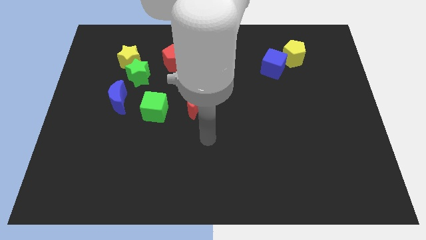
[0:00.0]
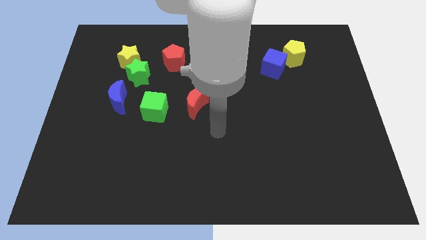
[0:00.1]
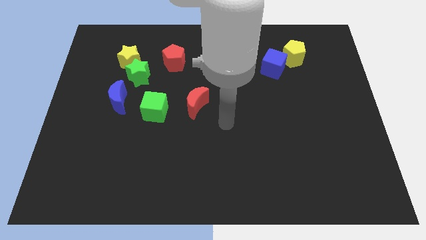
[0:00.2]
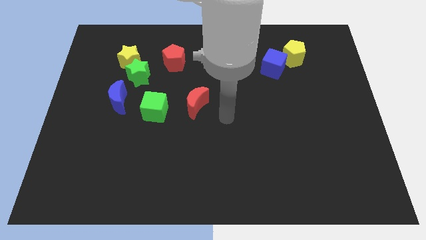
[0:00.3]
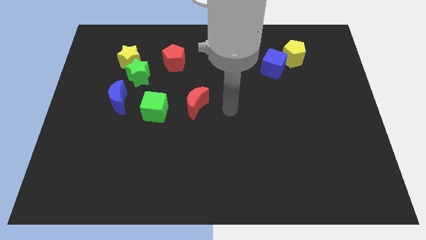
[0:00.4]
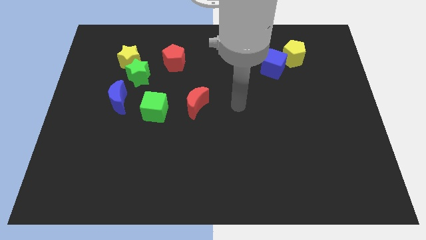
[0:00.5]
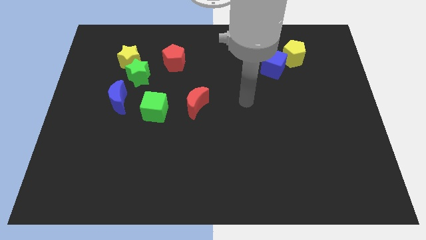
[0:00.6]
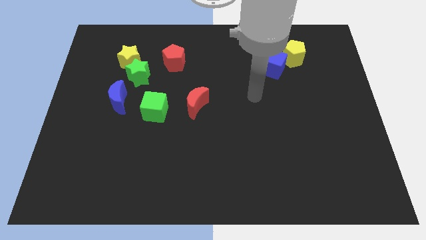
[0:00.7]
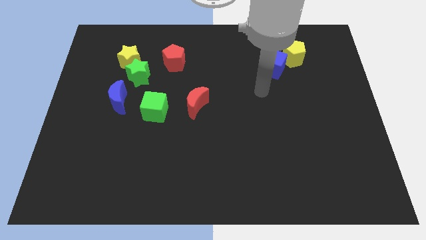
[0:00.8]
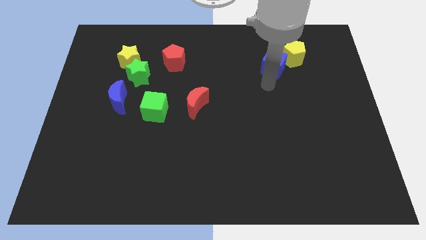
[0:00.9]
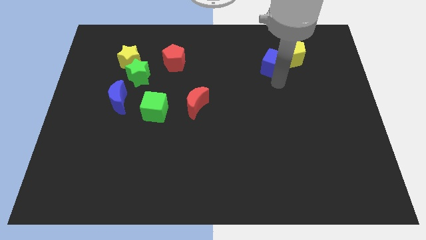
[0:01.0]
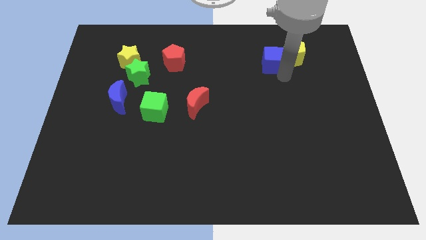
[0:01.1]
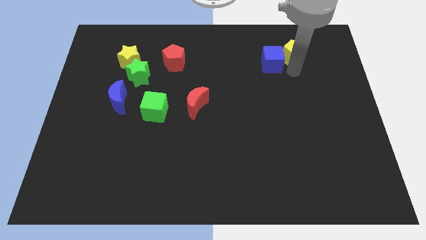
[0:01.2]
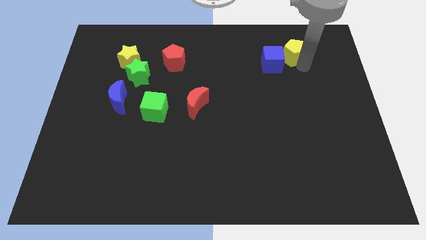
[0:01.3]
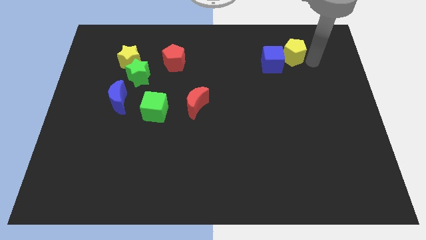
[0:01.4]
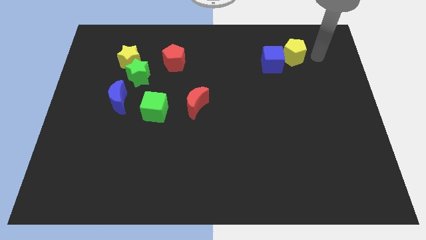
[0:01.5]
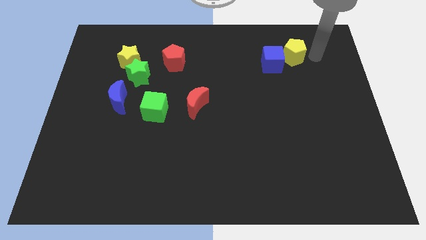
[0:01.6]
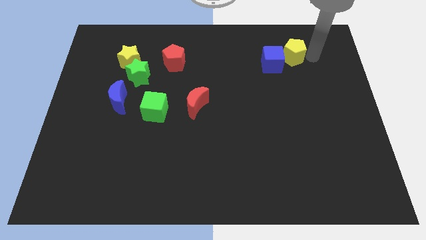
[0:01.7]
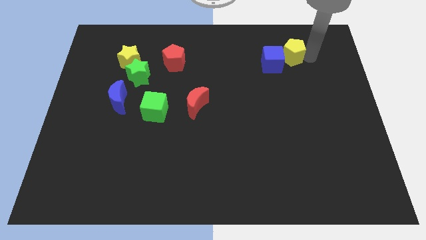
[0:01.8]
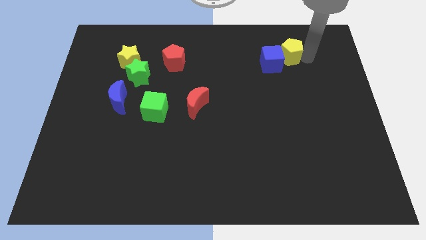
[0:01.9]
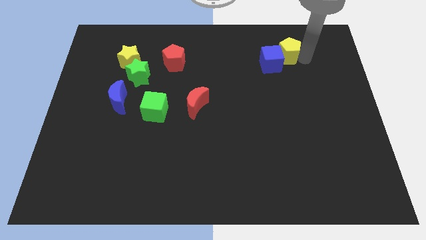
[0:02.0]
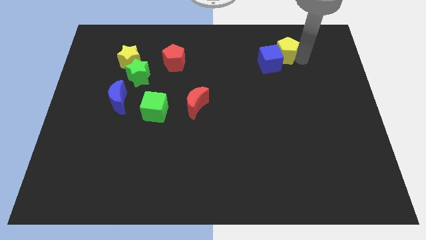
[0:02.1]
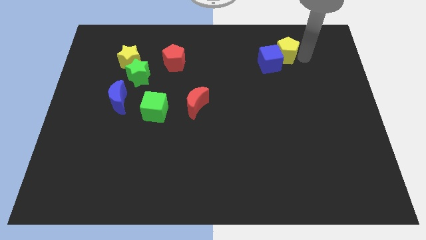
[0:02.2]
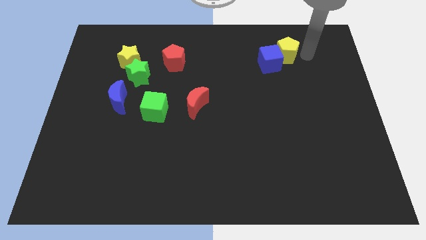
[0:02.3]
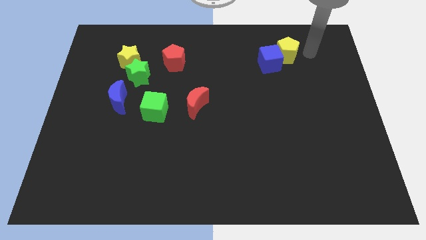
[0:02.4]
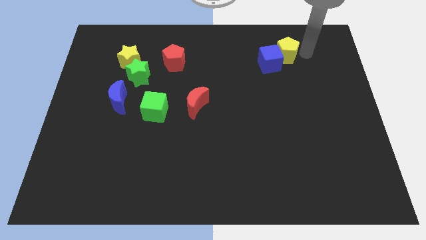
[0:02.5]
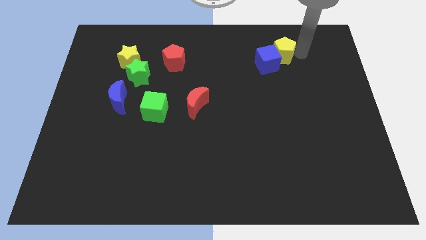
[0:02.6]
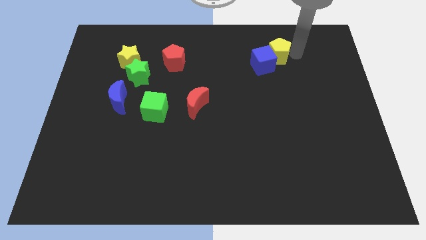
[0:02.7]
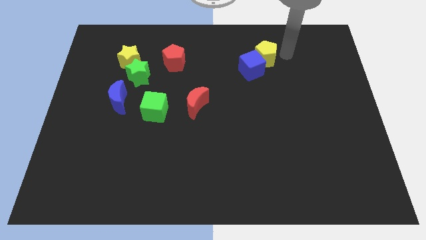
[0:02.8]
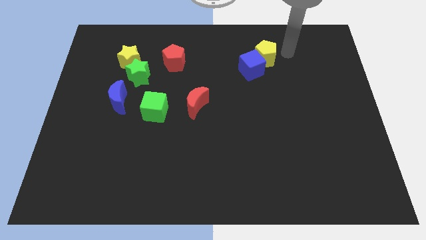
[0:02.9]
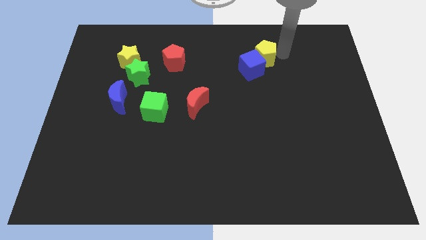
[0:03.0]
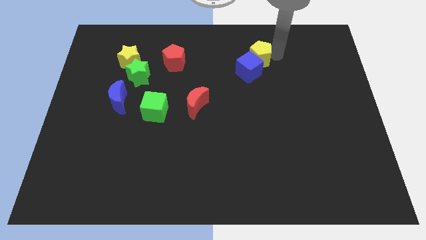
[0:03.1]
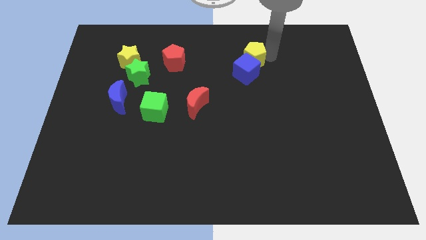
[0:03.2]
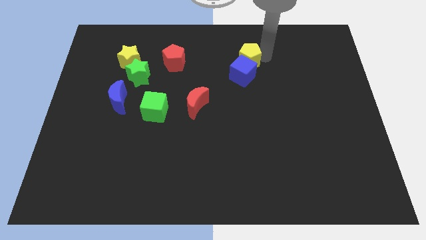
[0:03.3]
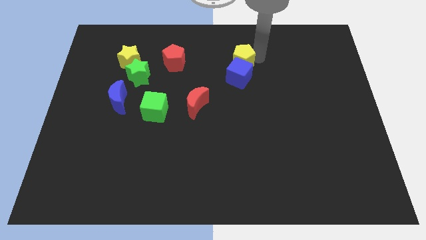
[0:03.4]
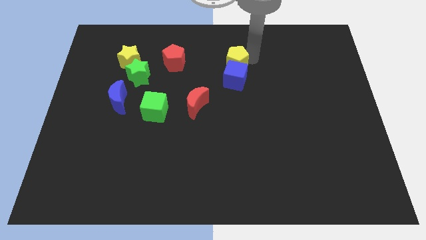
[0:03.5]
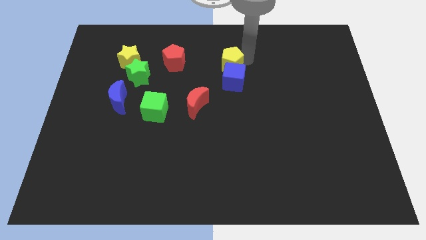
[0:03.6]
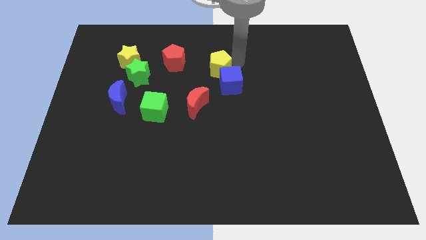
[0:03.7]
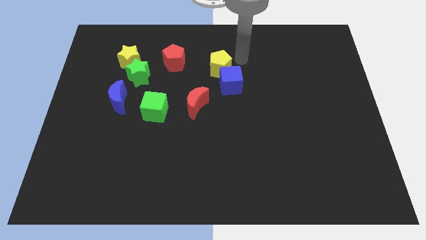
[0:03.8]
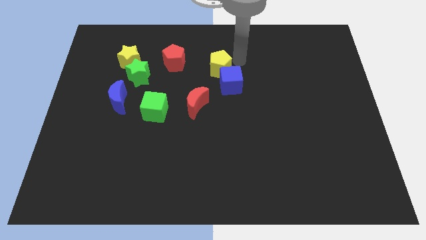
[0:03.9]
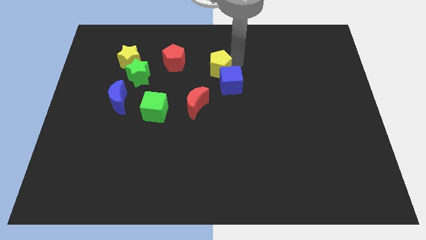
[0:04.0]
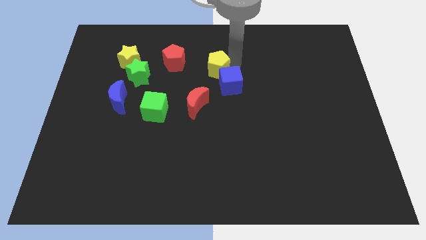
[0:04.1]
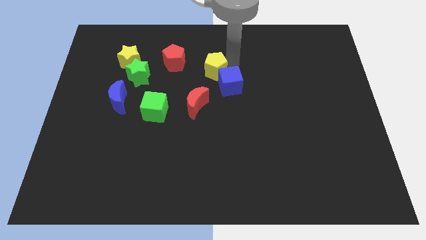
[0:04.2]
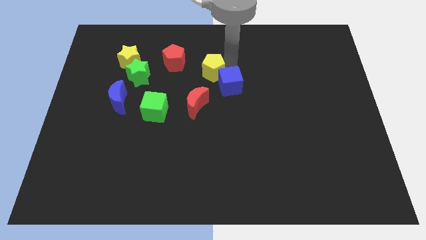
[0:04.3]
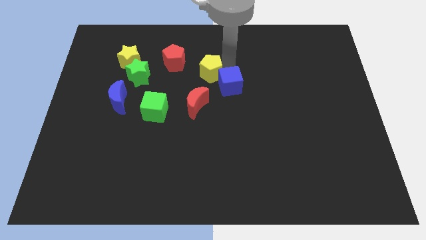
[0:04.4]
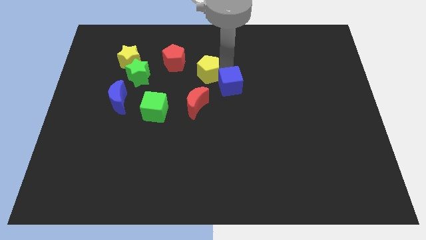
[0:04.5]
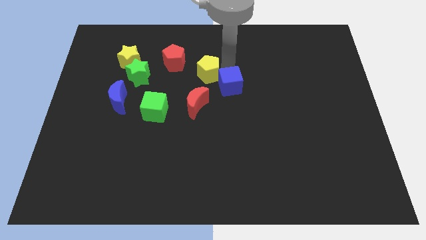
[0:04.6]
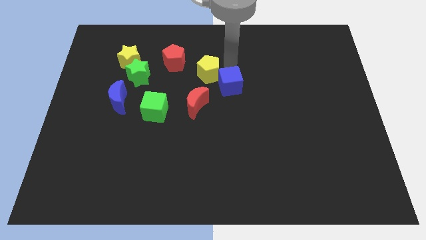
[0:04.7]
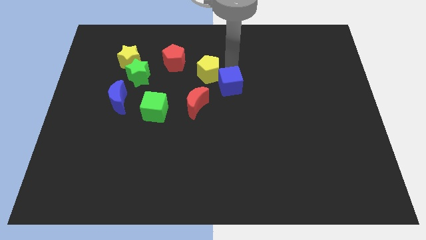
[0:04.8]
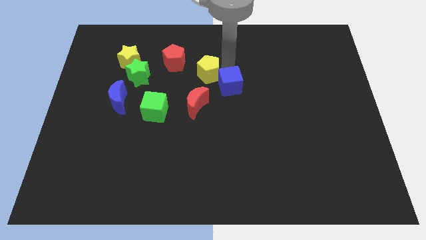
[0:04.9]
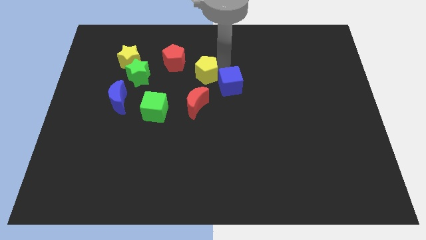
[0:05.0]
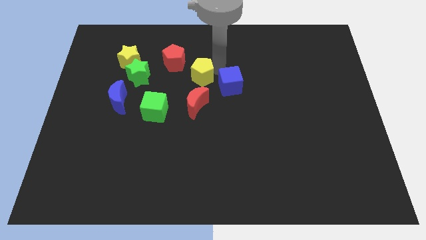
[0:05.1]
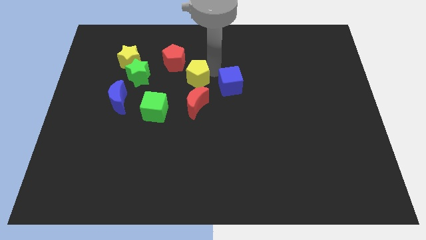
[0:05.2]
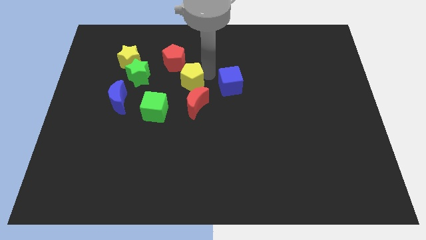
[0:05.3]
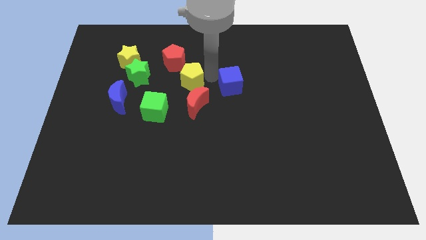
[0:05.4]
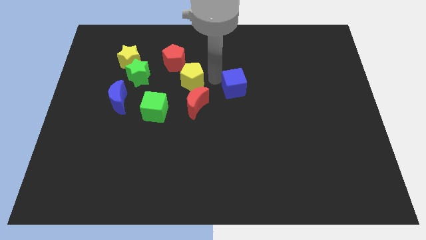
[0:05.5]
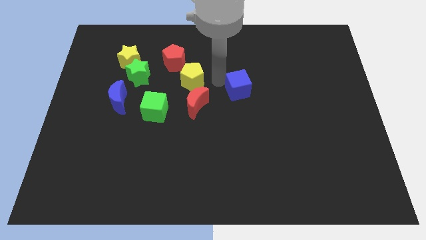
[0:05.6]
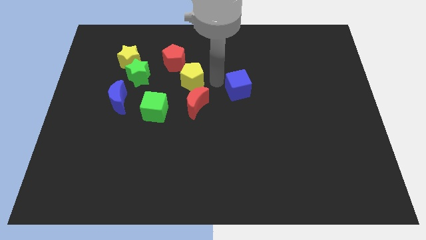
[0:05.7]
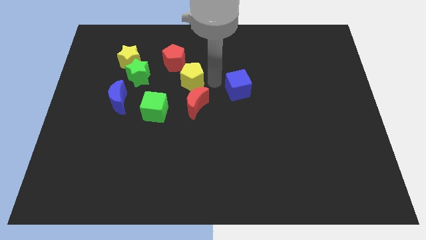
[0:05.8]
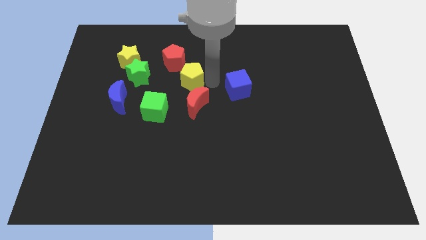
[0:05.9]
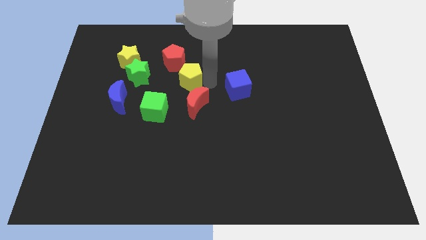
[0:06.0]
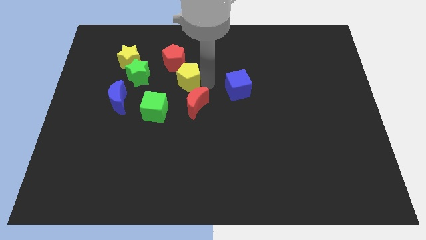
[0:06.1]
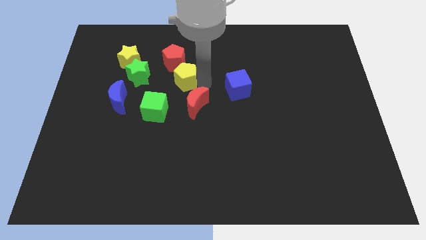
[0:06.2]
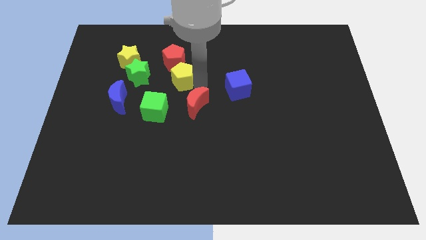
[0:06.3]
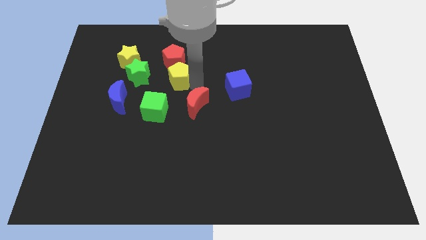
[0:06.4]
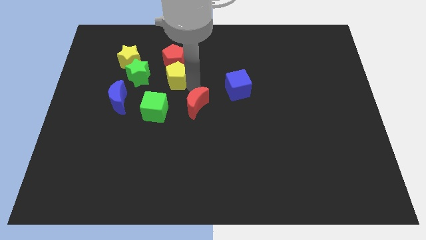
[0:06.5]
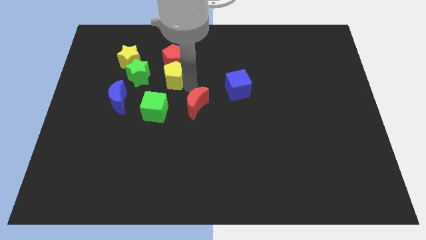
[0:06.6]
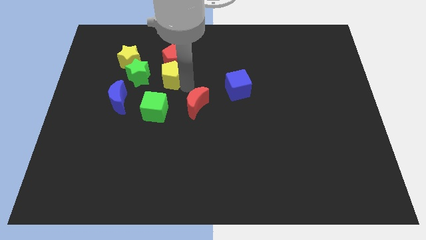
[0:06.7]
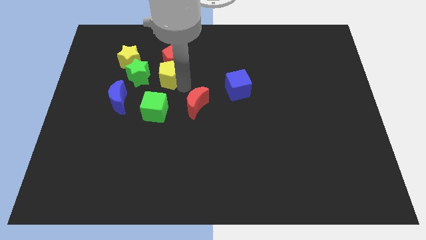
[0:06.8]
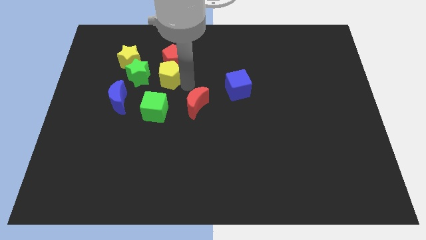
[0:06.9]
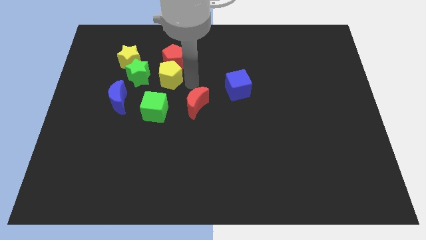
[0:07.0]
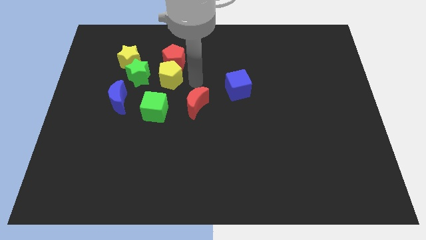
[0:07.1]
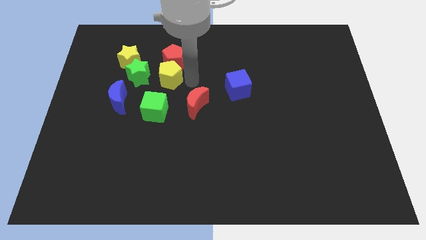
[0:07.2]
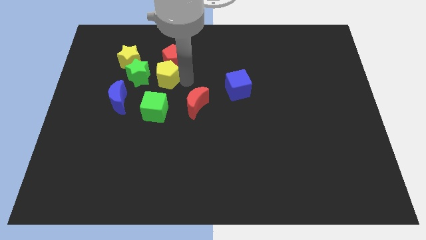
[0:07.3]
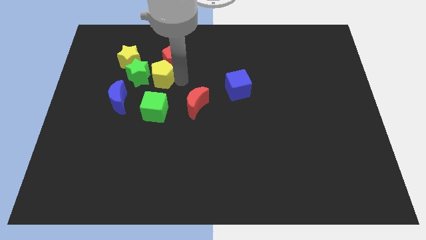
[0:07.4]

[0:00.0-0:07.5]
push the yellow pentagon close to the green star
